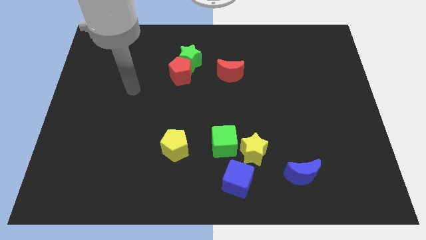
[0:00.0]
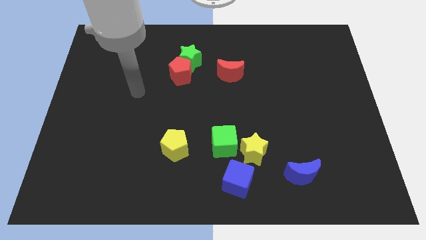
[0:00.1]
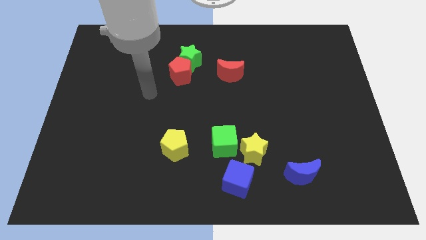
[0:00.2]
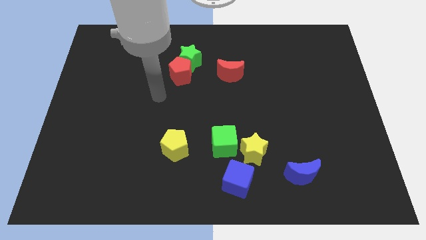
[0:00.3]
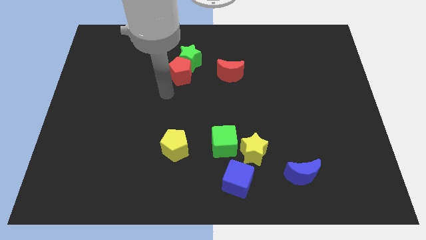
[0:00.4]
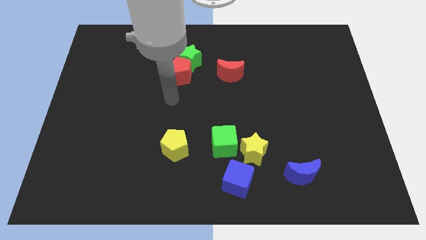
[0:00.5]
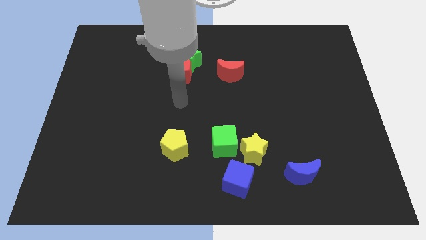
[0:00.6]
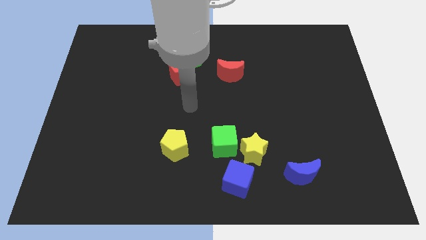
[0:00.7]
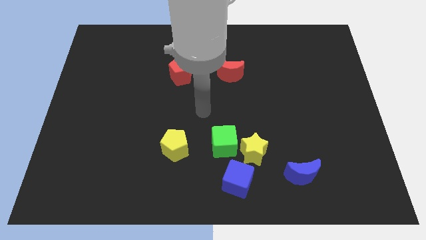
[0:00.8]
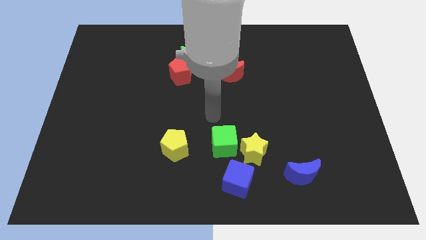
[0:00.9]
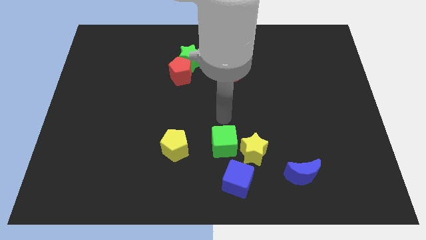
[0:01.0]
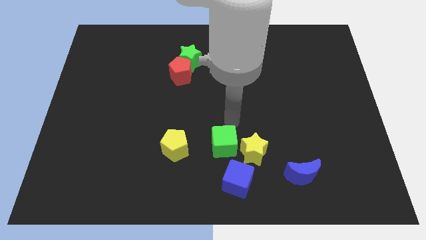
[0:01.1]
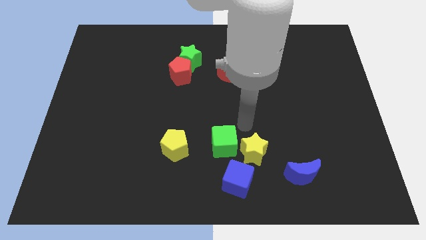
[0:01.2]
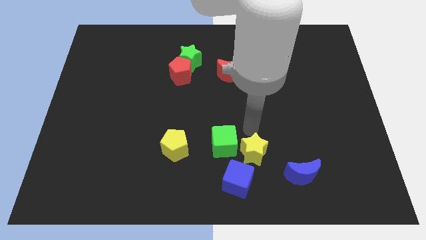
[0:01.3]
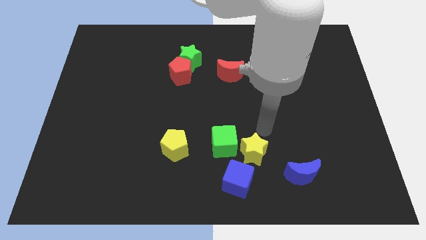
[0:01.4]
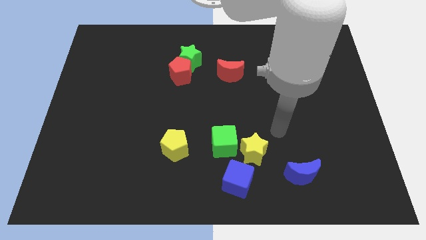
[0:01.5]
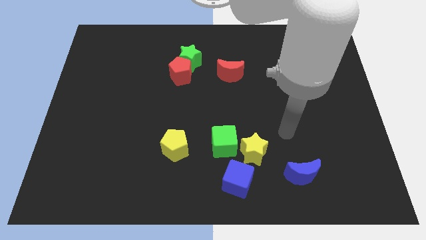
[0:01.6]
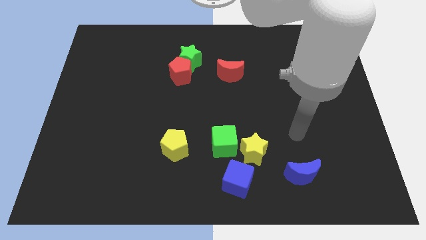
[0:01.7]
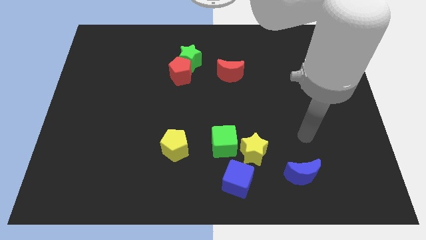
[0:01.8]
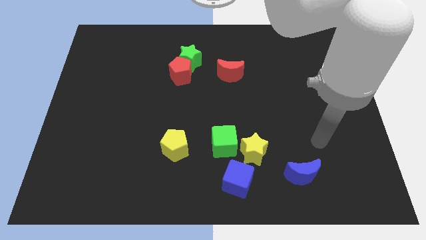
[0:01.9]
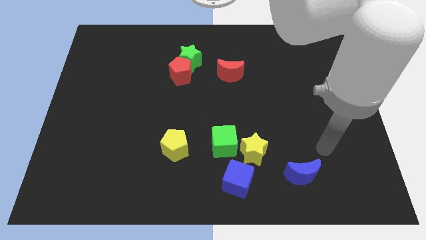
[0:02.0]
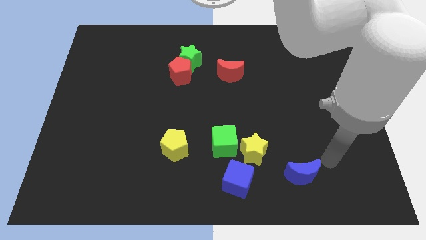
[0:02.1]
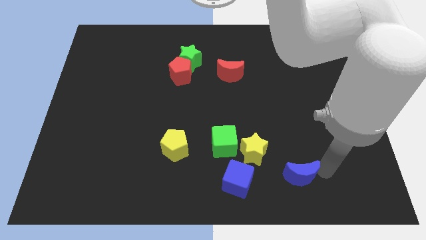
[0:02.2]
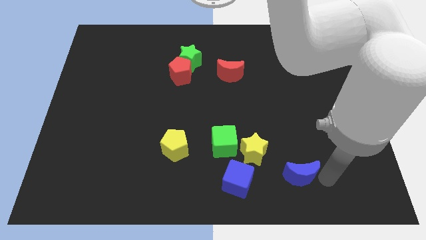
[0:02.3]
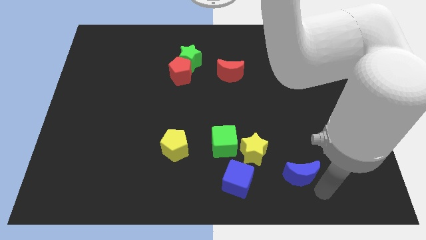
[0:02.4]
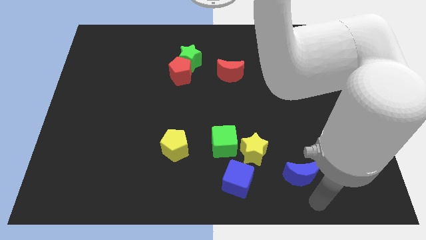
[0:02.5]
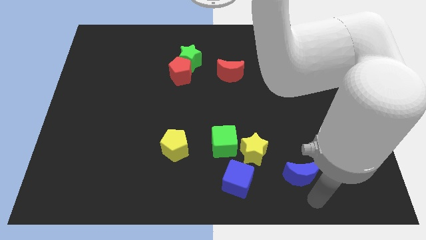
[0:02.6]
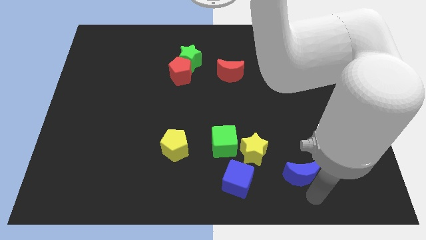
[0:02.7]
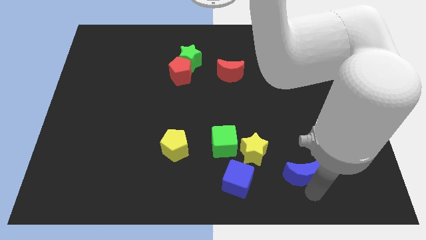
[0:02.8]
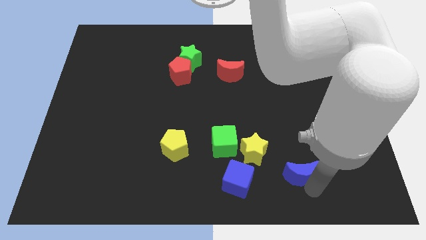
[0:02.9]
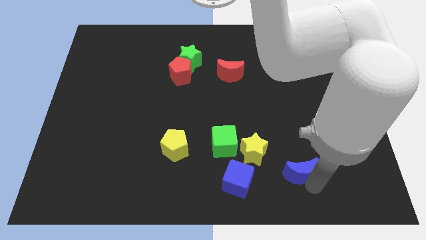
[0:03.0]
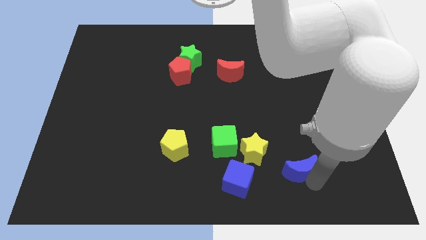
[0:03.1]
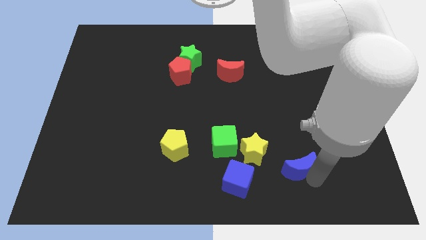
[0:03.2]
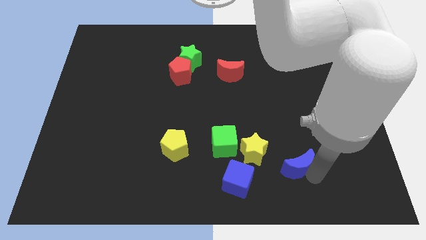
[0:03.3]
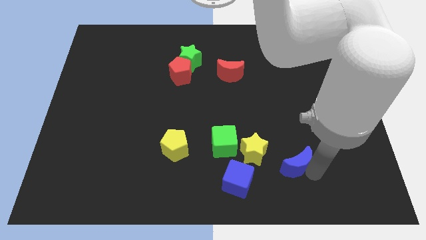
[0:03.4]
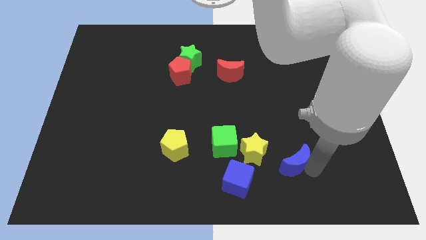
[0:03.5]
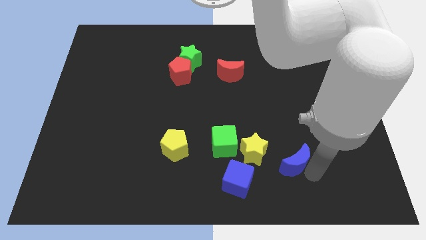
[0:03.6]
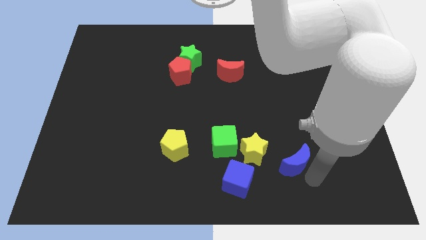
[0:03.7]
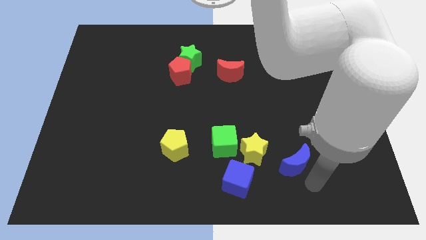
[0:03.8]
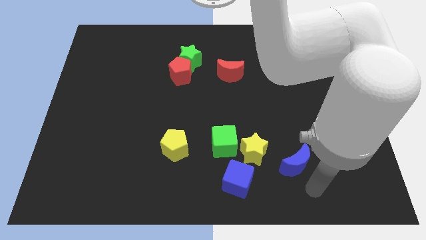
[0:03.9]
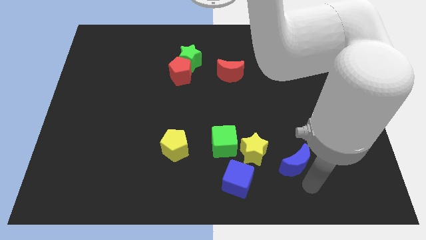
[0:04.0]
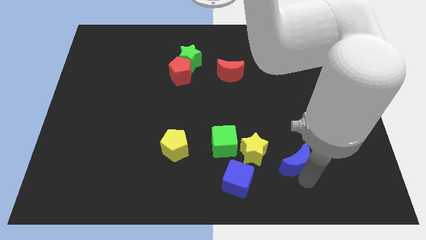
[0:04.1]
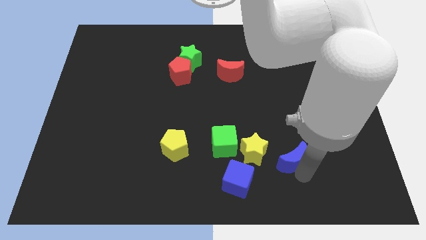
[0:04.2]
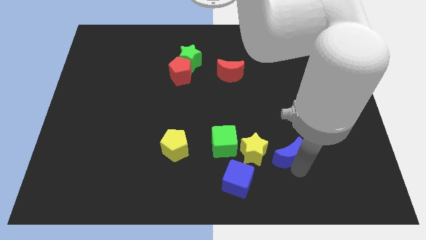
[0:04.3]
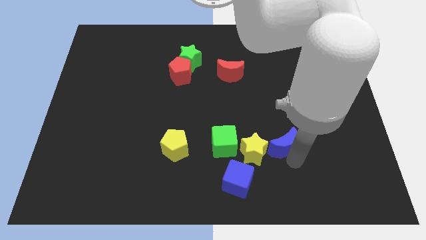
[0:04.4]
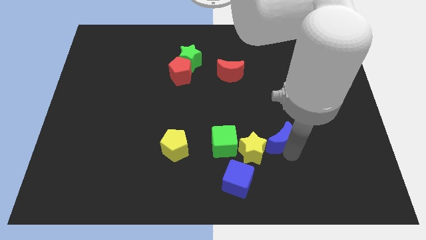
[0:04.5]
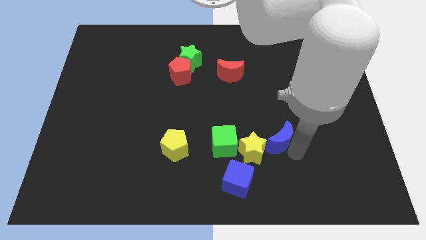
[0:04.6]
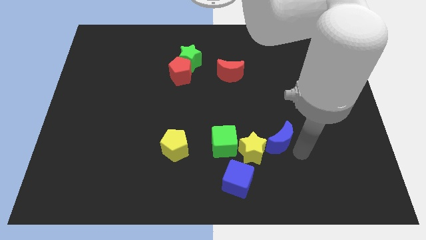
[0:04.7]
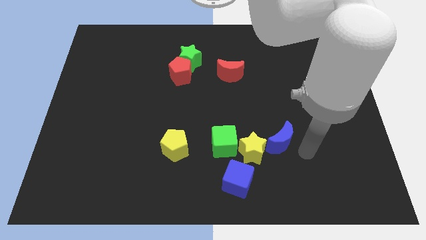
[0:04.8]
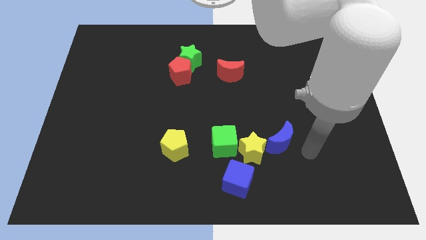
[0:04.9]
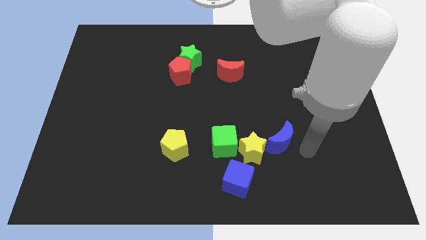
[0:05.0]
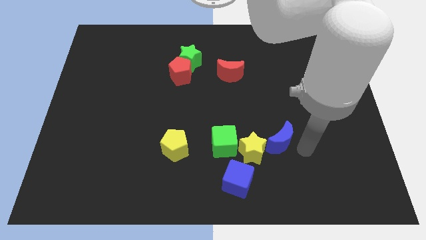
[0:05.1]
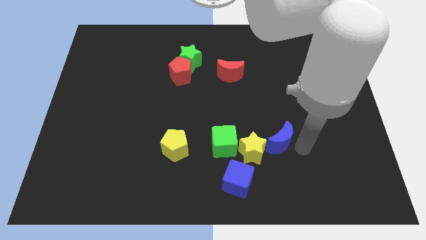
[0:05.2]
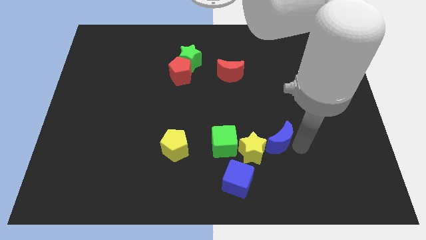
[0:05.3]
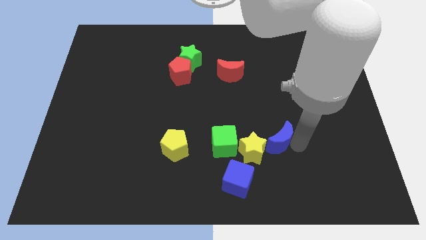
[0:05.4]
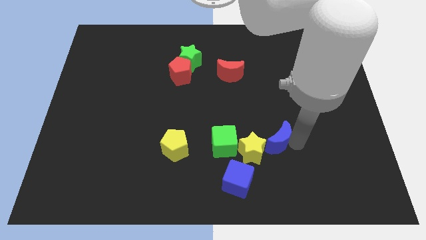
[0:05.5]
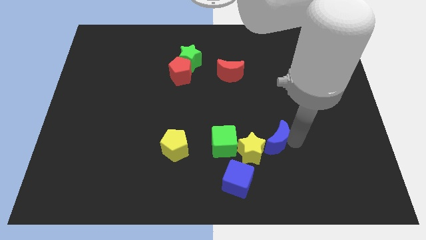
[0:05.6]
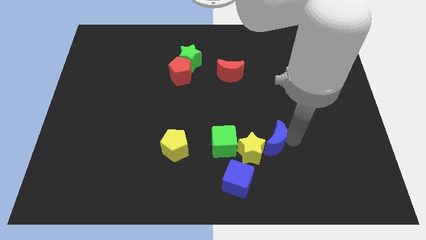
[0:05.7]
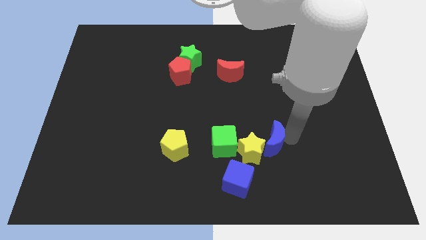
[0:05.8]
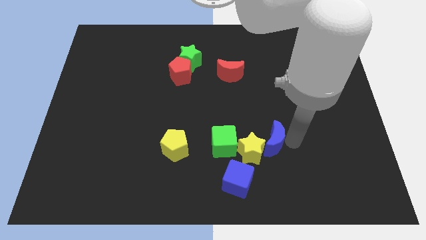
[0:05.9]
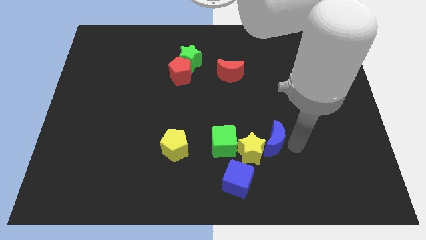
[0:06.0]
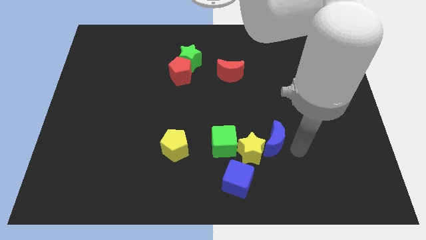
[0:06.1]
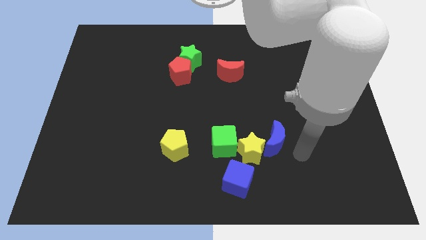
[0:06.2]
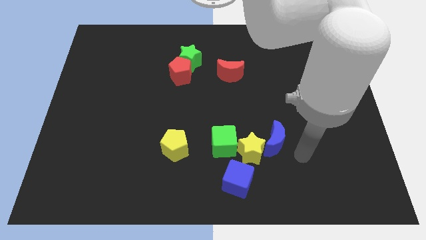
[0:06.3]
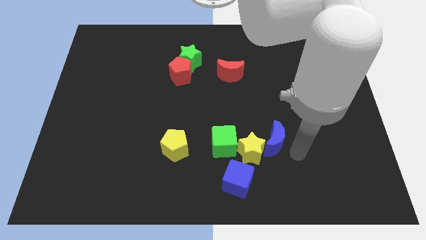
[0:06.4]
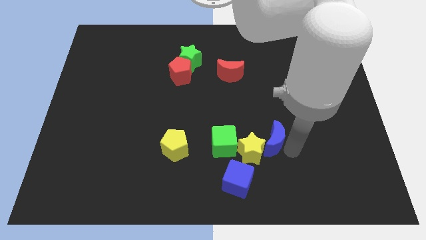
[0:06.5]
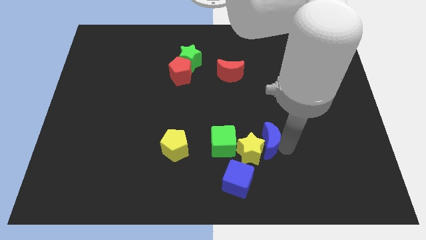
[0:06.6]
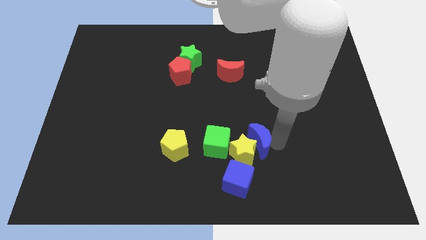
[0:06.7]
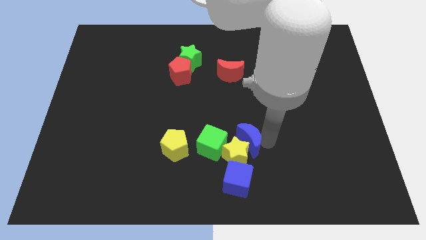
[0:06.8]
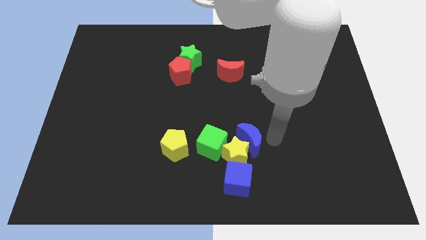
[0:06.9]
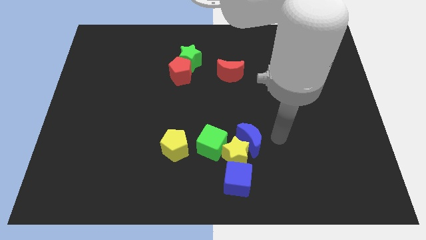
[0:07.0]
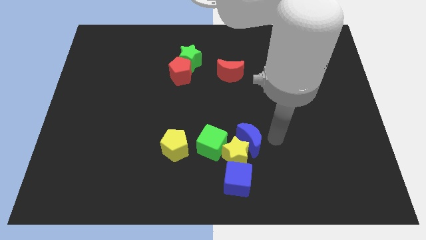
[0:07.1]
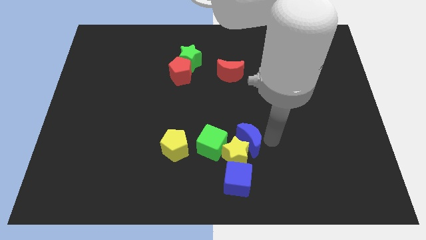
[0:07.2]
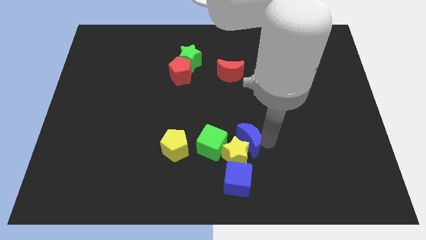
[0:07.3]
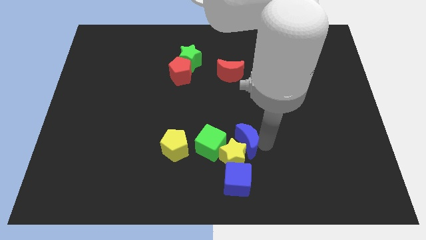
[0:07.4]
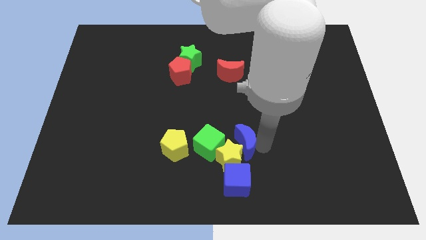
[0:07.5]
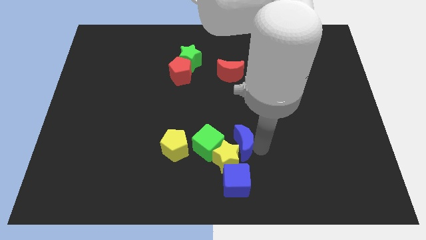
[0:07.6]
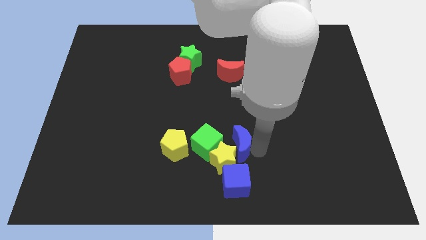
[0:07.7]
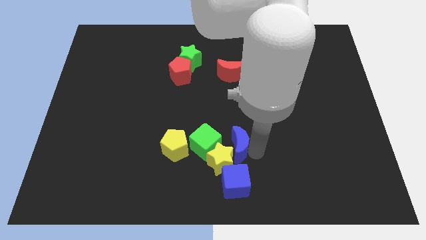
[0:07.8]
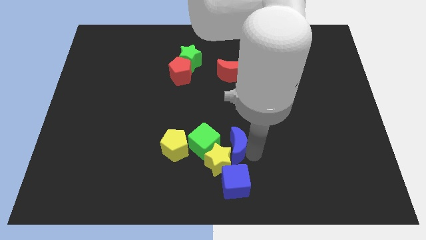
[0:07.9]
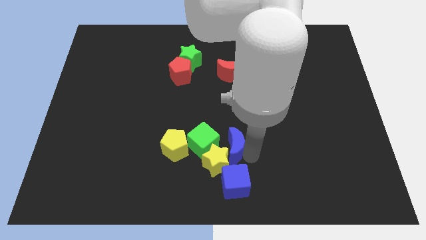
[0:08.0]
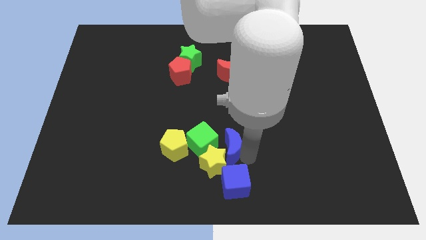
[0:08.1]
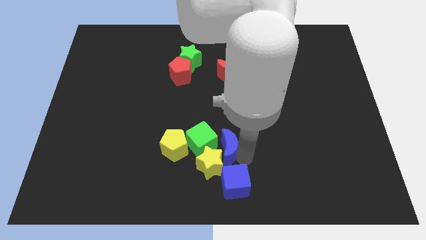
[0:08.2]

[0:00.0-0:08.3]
slide the blue moon to the green cube
